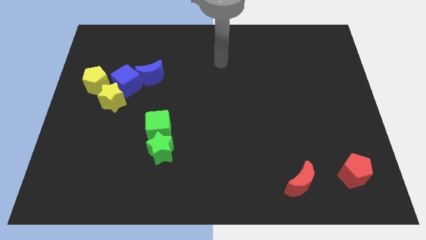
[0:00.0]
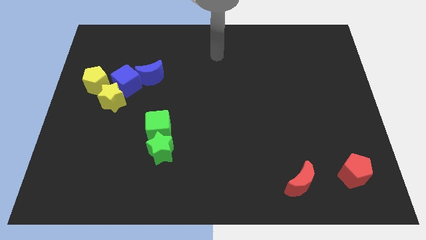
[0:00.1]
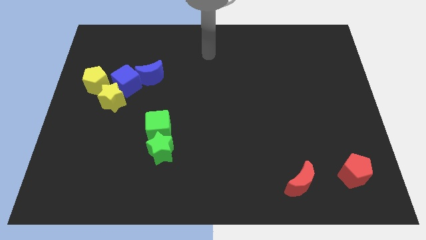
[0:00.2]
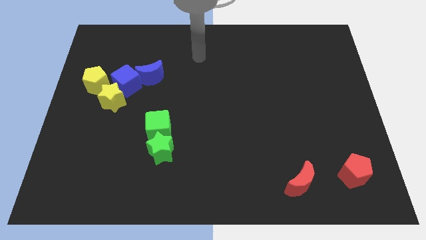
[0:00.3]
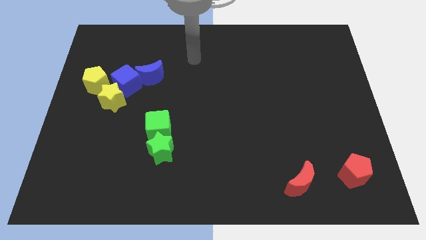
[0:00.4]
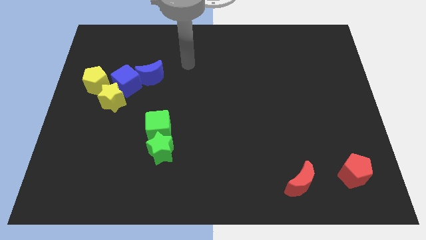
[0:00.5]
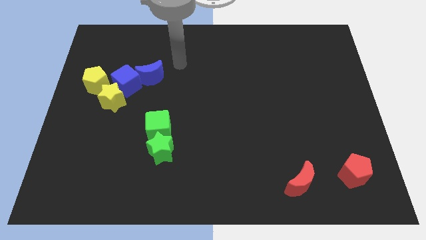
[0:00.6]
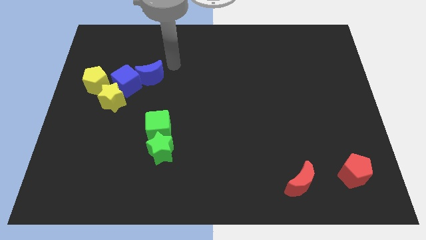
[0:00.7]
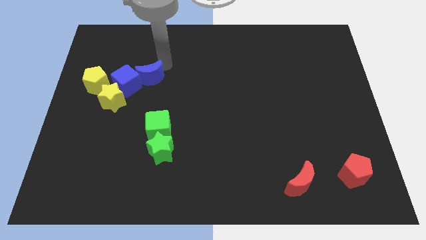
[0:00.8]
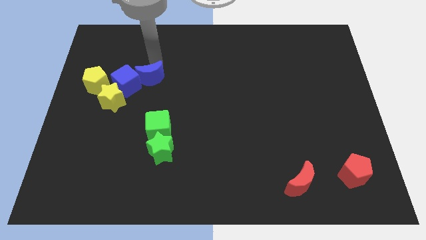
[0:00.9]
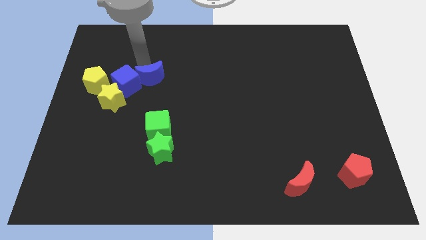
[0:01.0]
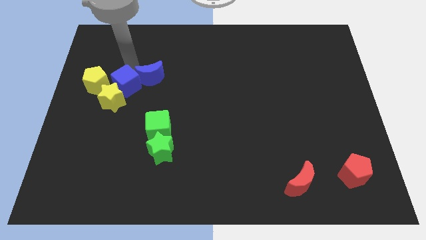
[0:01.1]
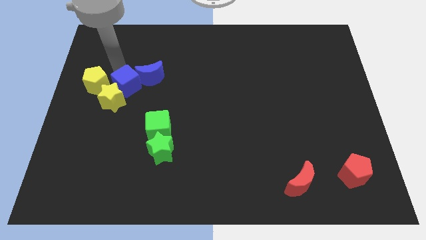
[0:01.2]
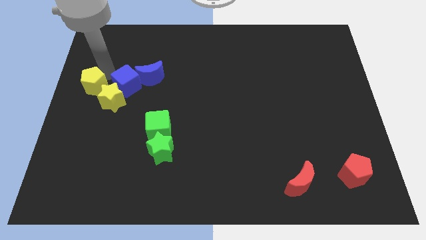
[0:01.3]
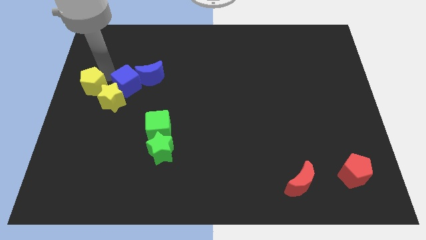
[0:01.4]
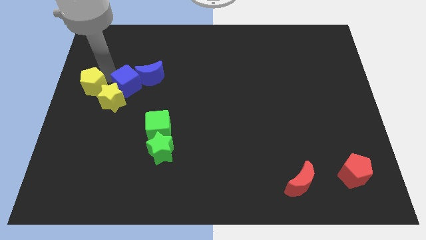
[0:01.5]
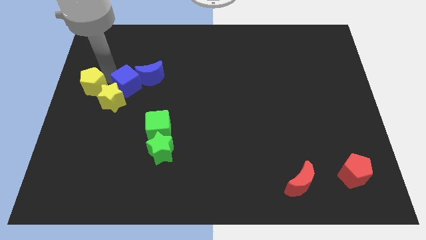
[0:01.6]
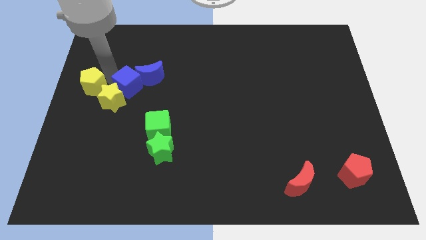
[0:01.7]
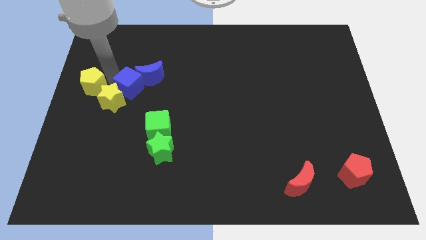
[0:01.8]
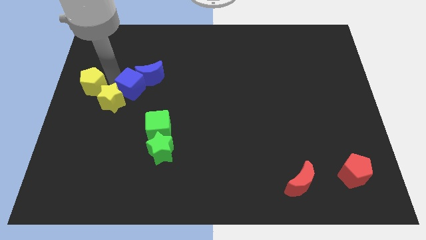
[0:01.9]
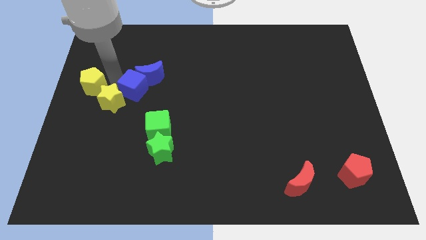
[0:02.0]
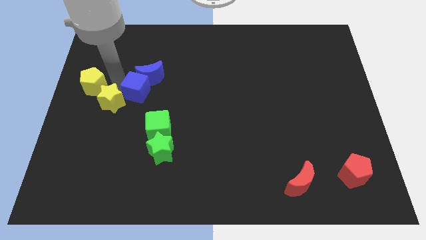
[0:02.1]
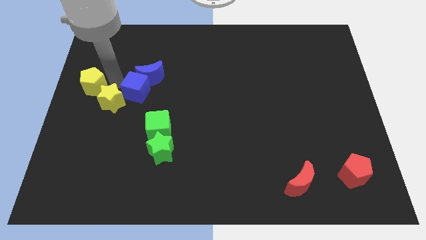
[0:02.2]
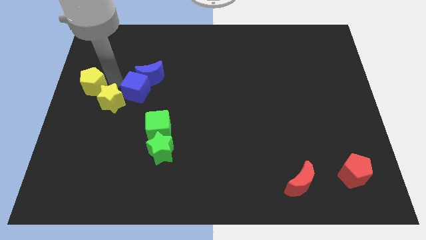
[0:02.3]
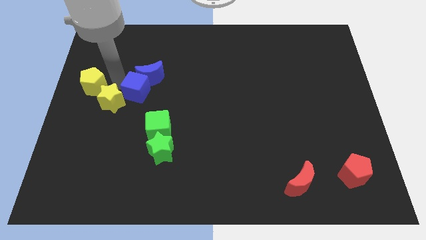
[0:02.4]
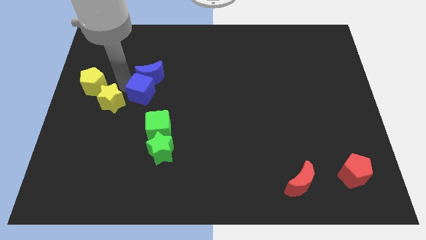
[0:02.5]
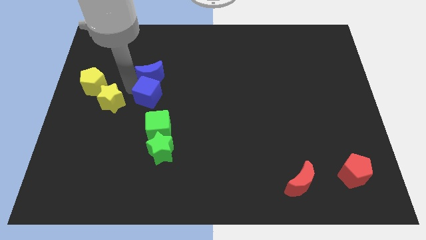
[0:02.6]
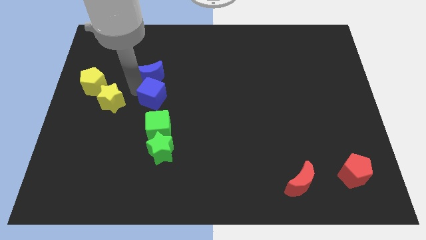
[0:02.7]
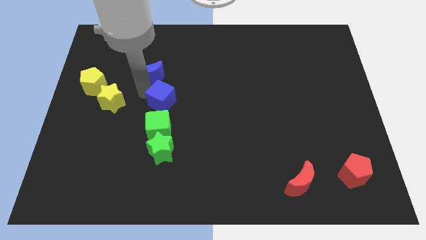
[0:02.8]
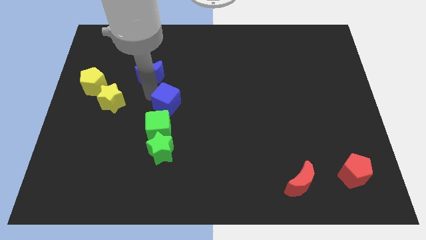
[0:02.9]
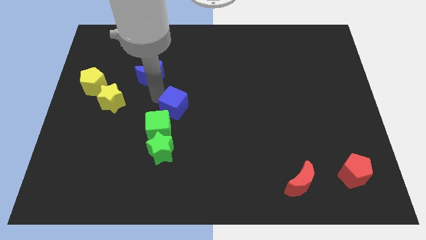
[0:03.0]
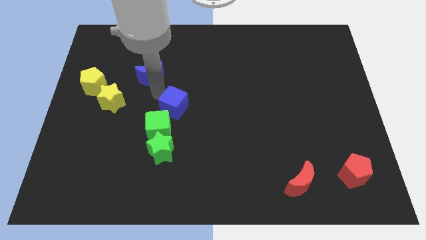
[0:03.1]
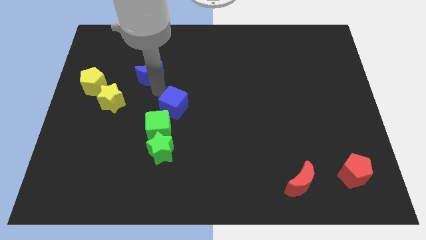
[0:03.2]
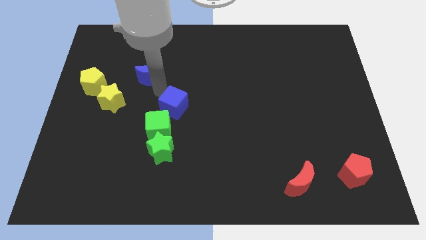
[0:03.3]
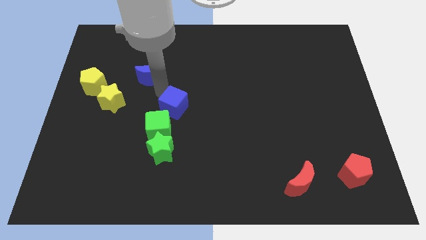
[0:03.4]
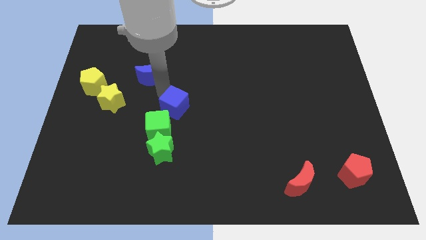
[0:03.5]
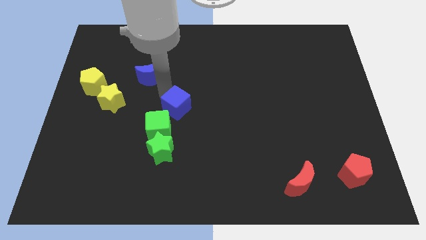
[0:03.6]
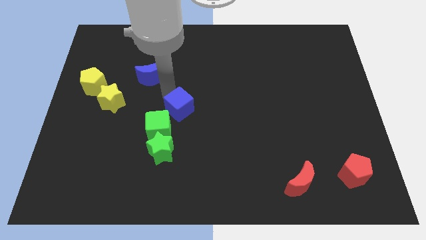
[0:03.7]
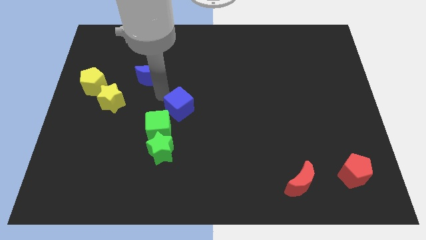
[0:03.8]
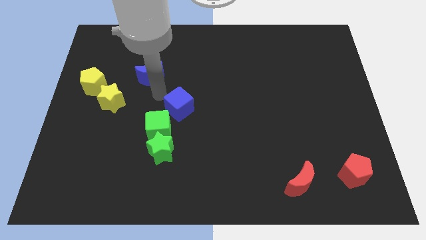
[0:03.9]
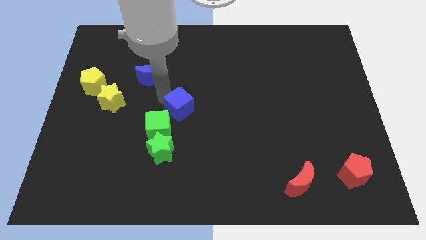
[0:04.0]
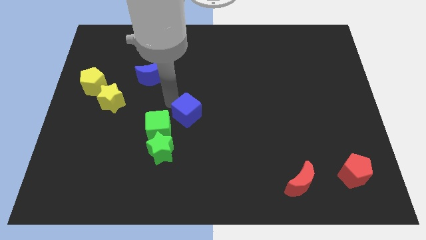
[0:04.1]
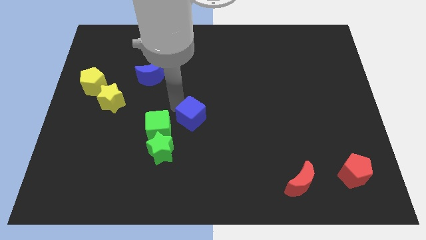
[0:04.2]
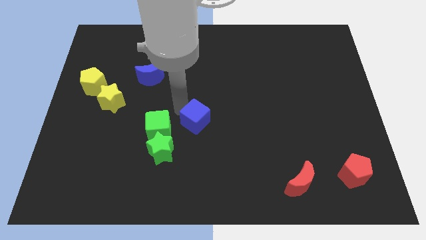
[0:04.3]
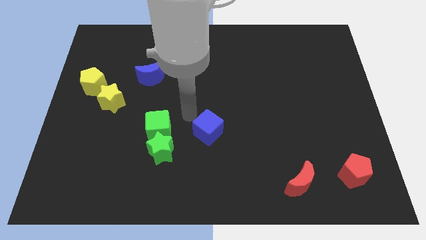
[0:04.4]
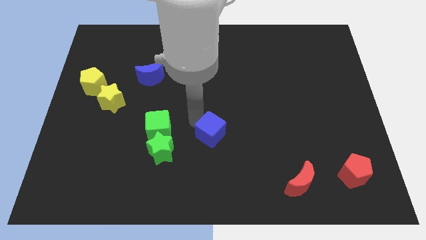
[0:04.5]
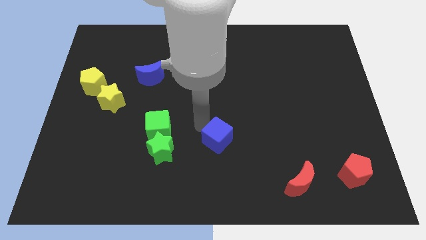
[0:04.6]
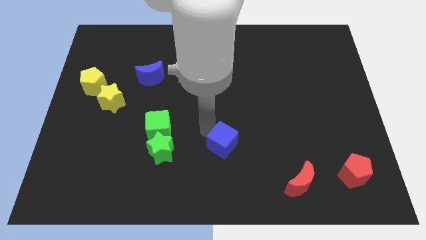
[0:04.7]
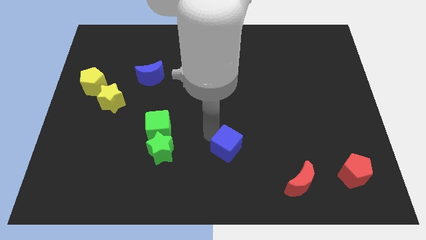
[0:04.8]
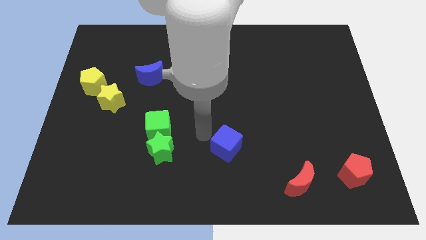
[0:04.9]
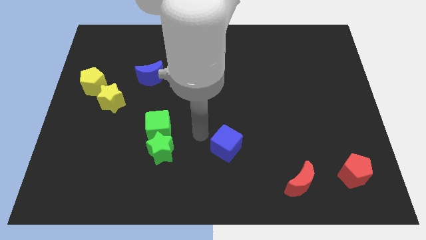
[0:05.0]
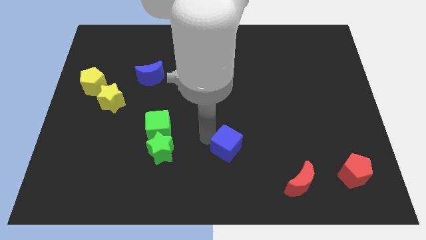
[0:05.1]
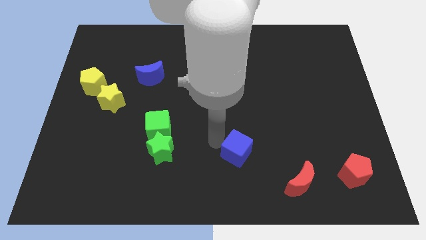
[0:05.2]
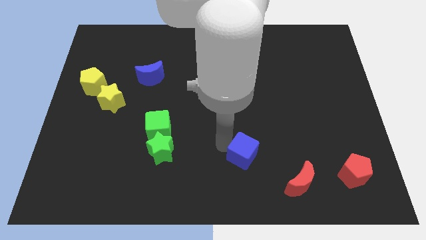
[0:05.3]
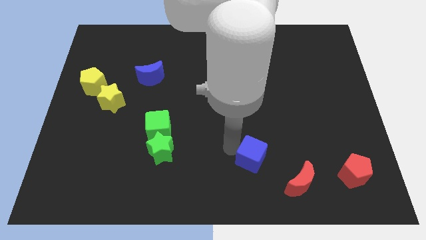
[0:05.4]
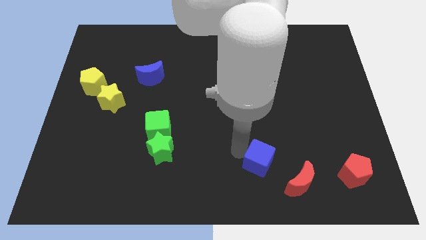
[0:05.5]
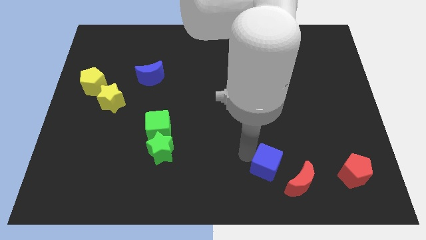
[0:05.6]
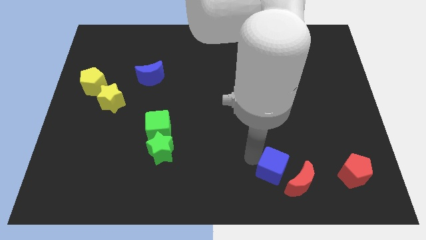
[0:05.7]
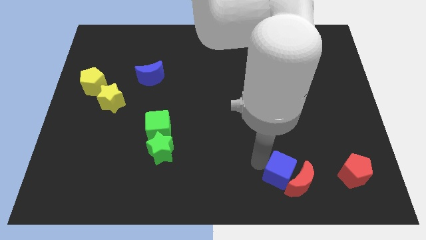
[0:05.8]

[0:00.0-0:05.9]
slide the blue cube just left of the red pentagon

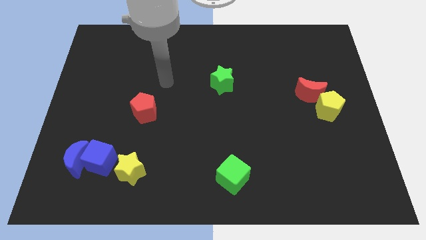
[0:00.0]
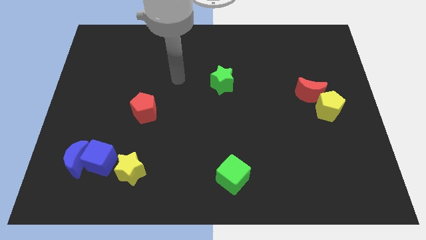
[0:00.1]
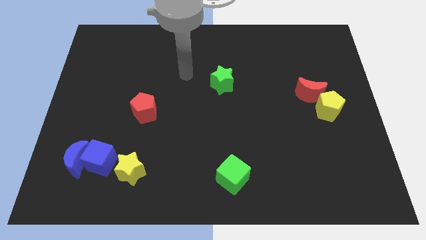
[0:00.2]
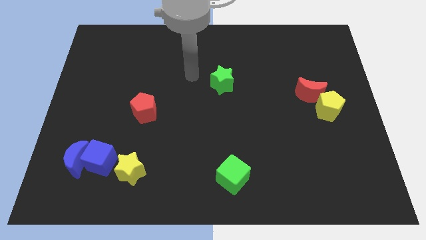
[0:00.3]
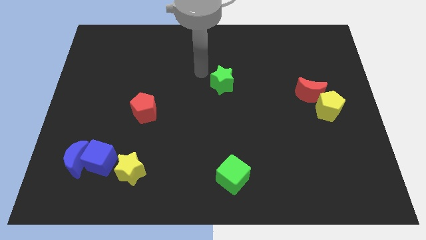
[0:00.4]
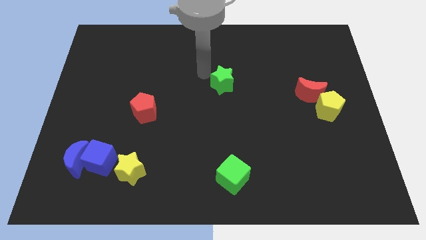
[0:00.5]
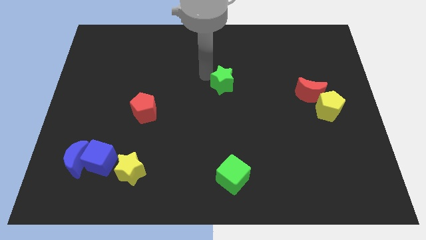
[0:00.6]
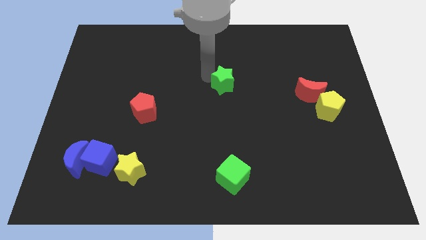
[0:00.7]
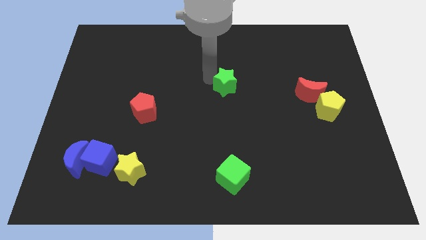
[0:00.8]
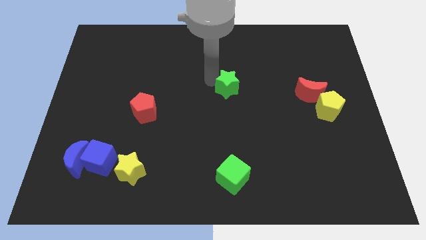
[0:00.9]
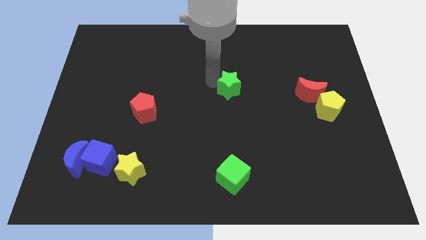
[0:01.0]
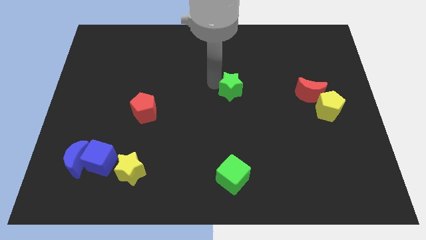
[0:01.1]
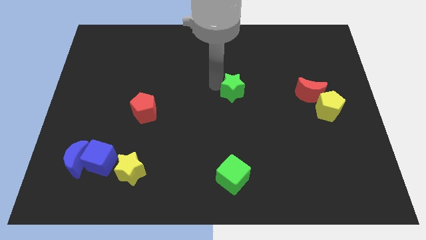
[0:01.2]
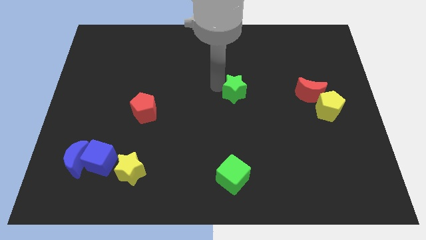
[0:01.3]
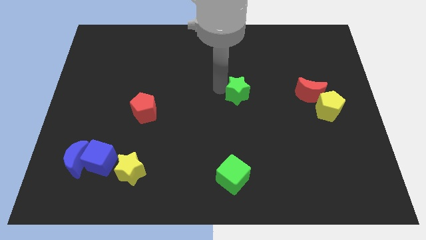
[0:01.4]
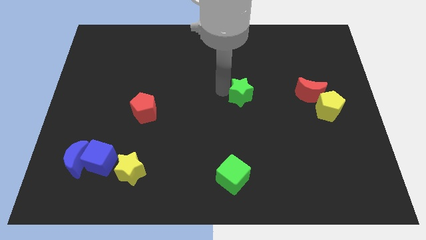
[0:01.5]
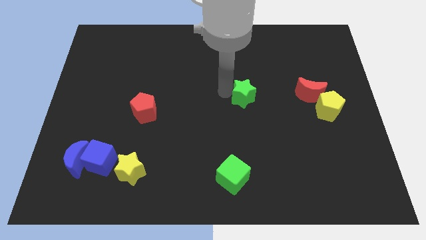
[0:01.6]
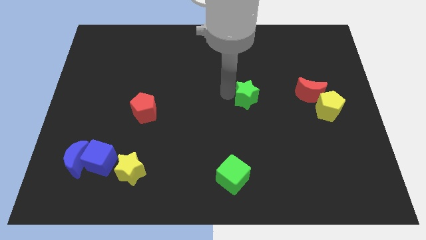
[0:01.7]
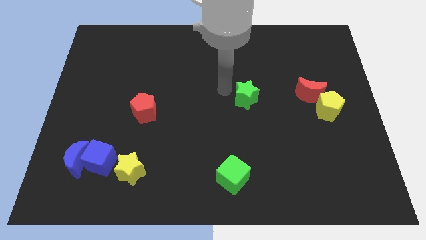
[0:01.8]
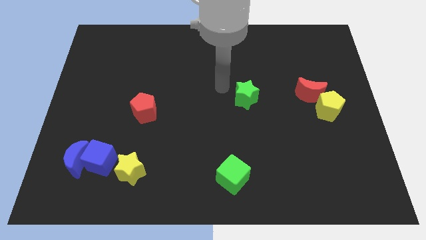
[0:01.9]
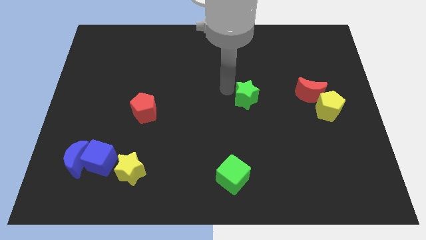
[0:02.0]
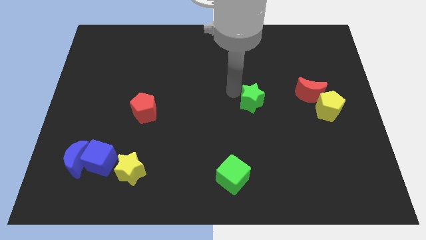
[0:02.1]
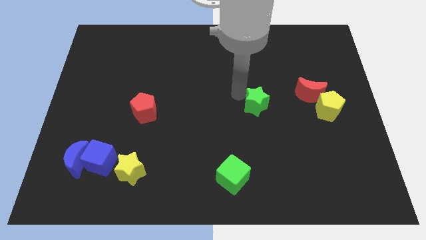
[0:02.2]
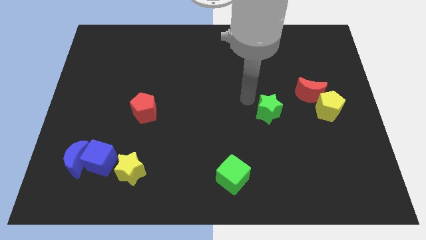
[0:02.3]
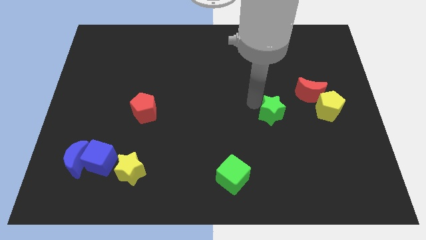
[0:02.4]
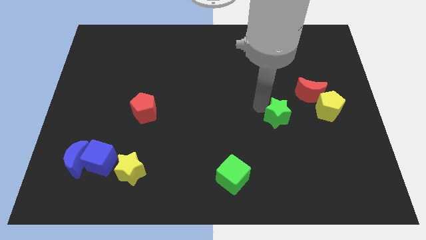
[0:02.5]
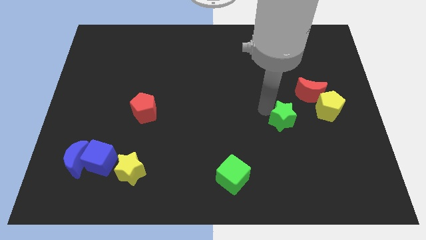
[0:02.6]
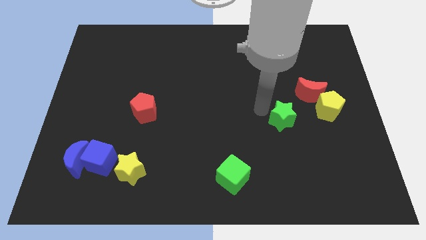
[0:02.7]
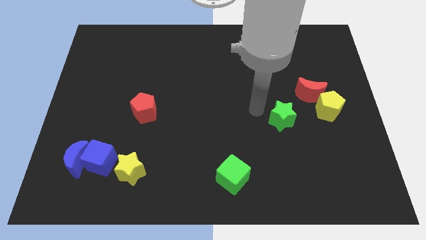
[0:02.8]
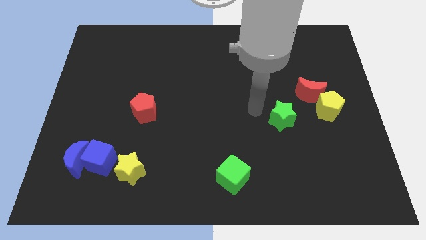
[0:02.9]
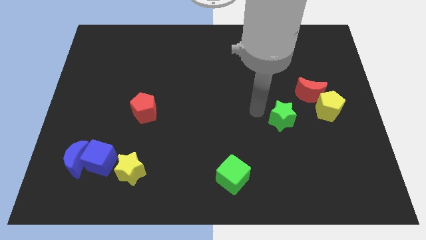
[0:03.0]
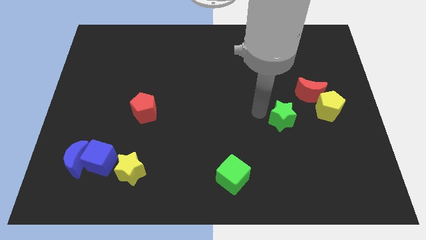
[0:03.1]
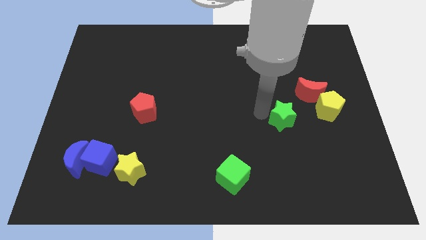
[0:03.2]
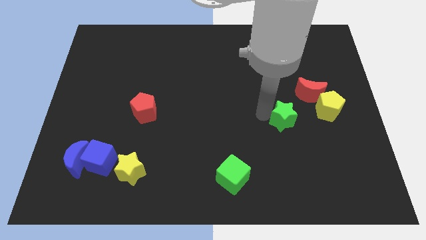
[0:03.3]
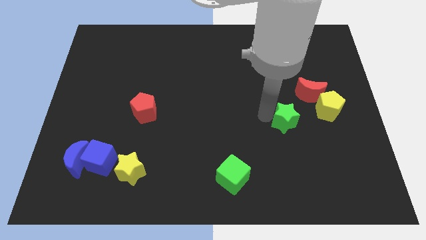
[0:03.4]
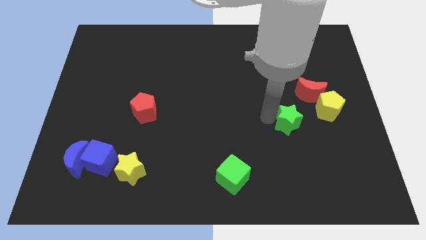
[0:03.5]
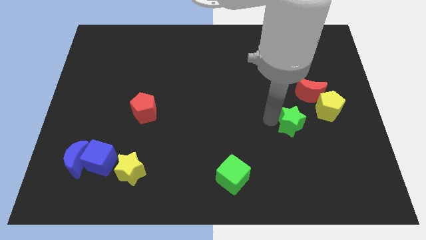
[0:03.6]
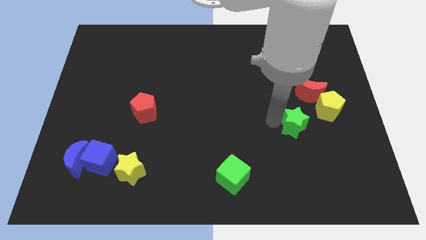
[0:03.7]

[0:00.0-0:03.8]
move the green star to the bottom side of the red moon
